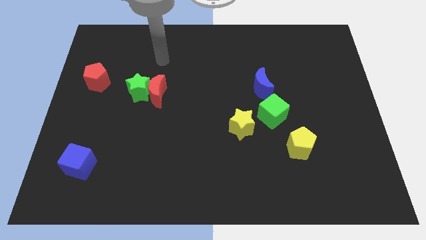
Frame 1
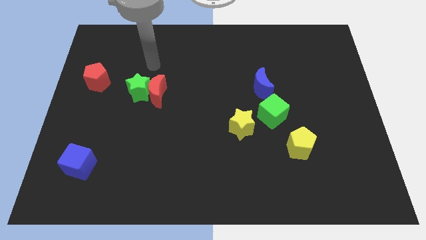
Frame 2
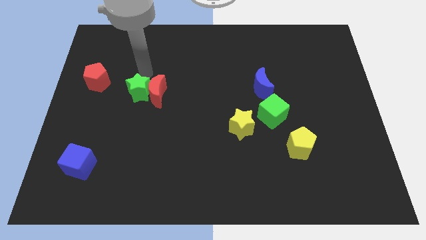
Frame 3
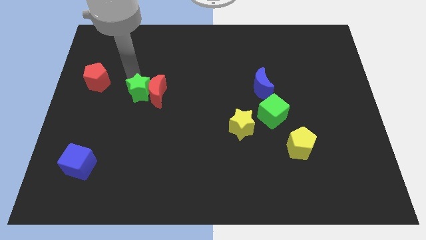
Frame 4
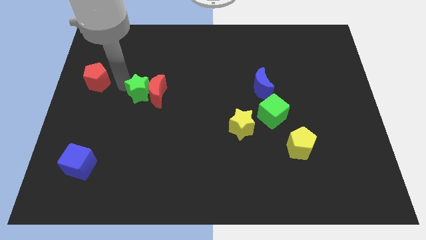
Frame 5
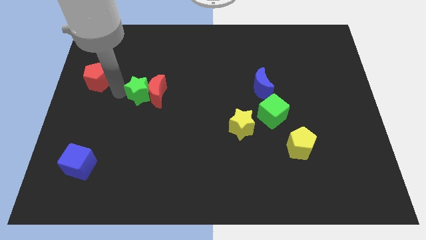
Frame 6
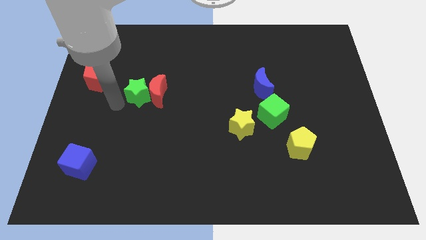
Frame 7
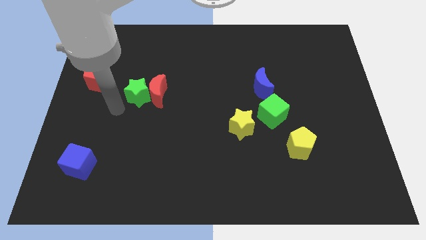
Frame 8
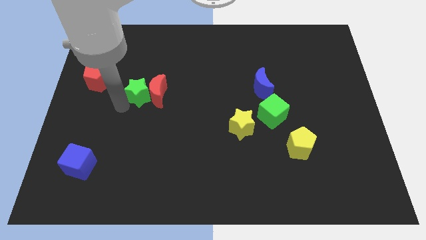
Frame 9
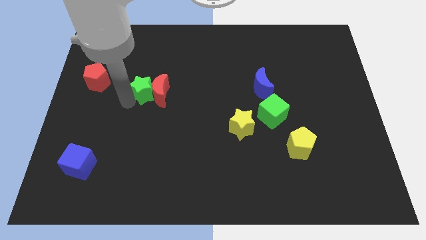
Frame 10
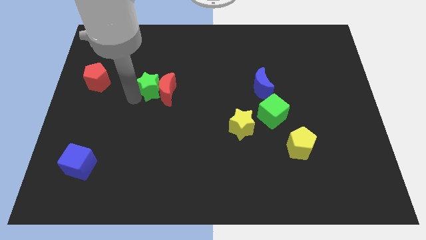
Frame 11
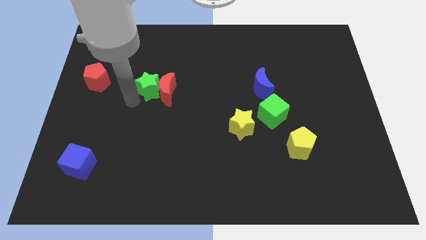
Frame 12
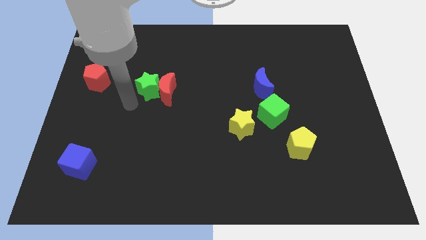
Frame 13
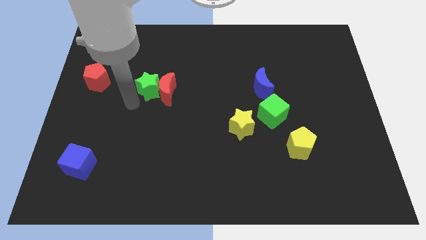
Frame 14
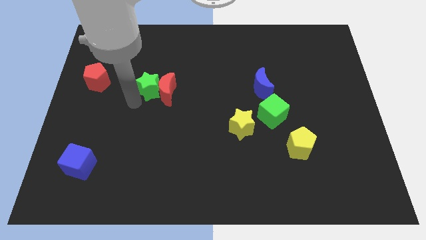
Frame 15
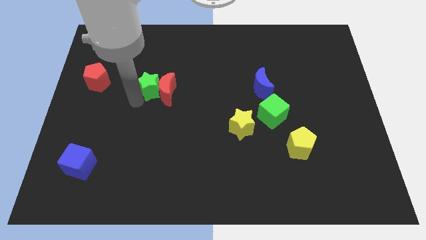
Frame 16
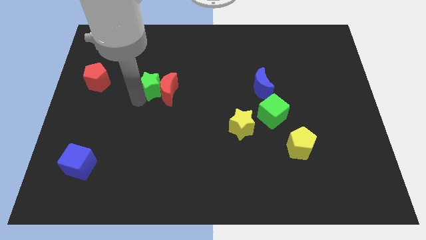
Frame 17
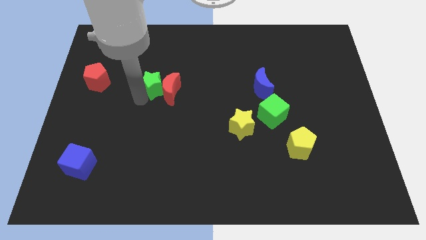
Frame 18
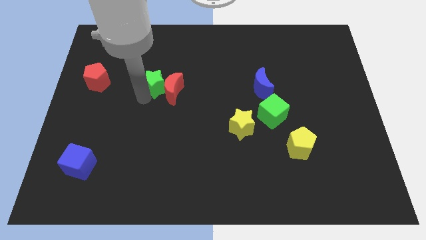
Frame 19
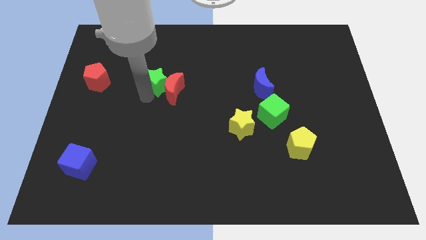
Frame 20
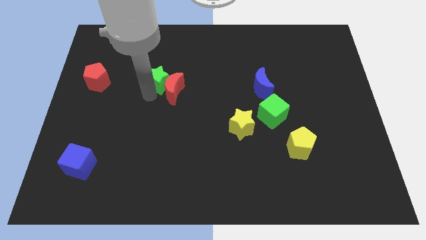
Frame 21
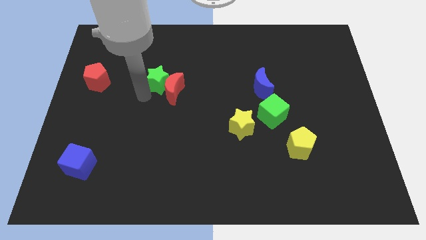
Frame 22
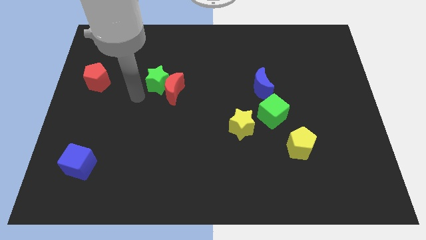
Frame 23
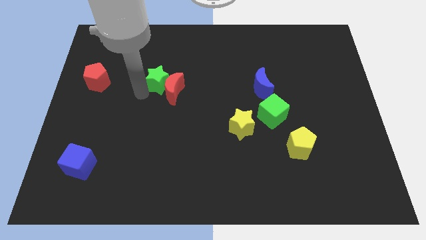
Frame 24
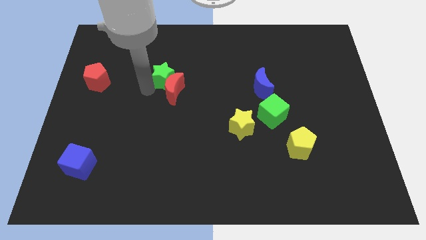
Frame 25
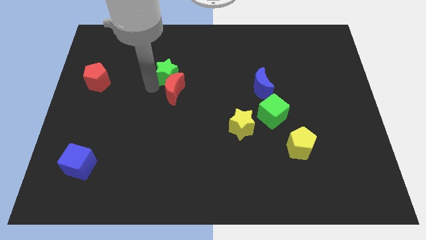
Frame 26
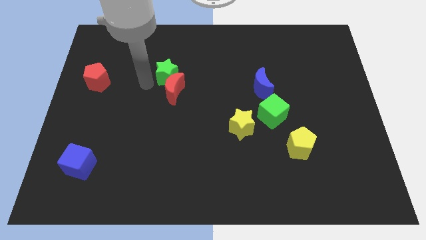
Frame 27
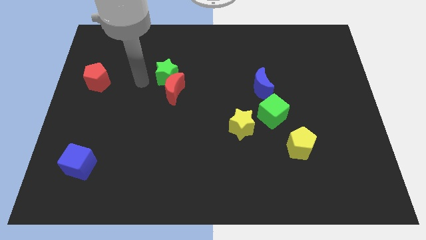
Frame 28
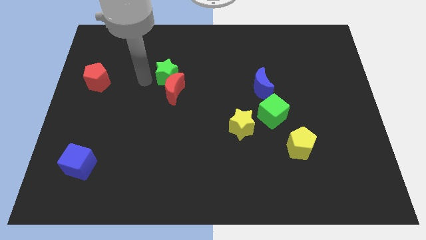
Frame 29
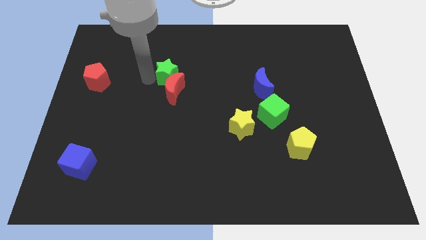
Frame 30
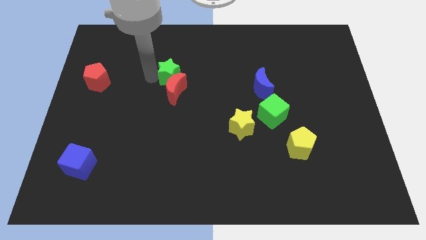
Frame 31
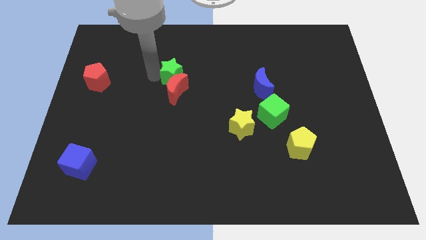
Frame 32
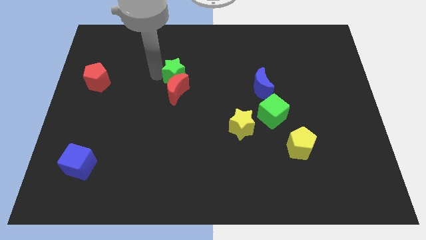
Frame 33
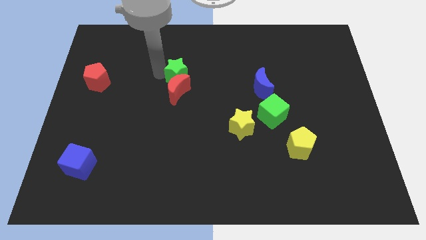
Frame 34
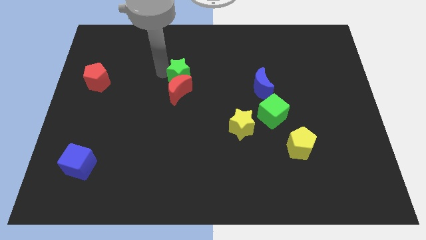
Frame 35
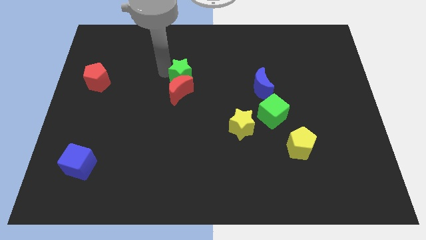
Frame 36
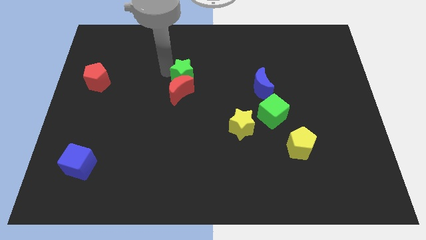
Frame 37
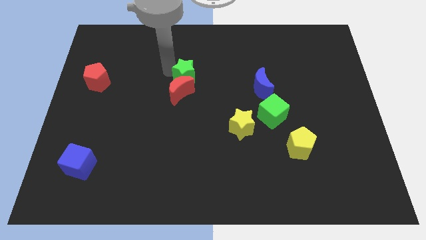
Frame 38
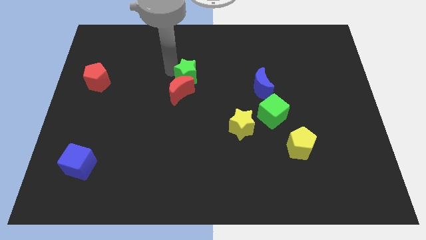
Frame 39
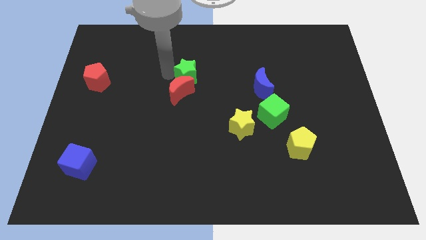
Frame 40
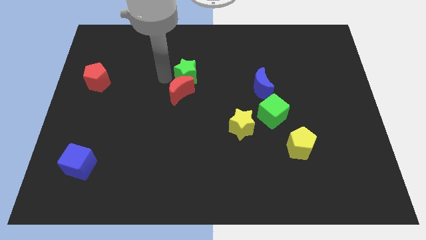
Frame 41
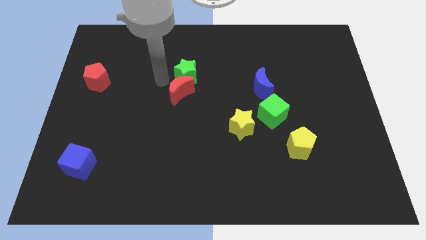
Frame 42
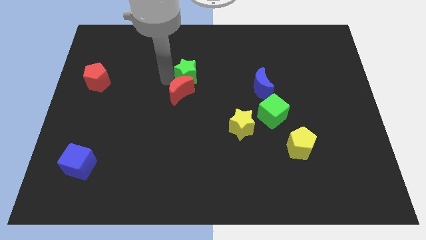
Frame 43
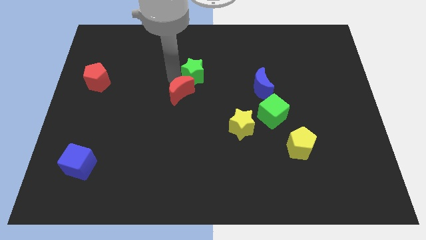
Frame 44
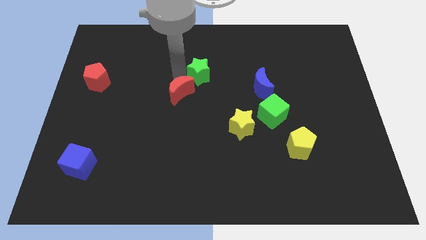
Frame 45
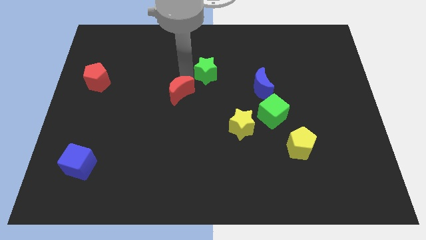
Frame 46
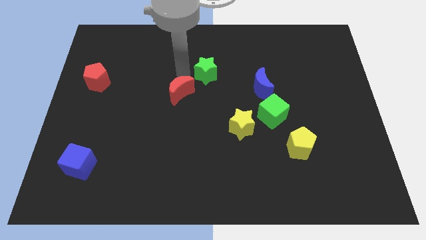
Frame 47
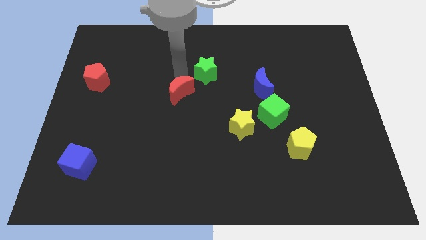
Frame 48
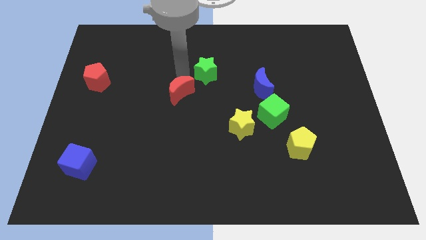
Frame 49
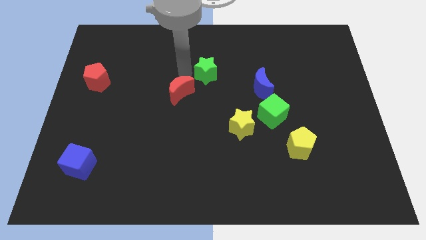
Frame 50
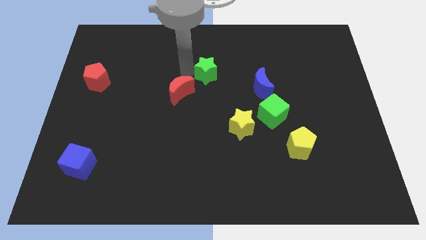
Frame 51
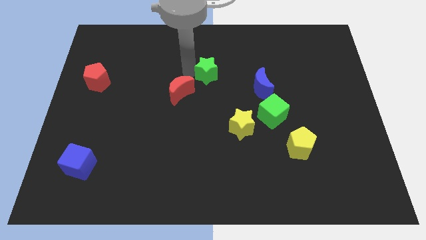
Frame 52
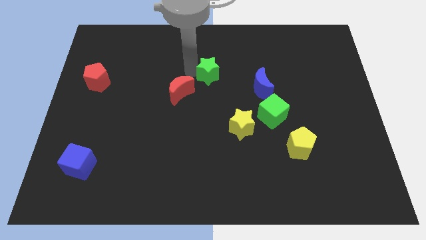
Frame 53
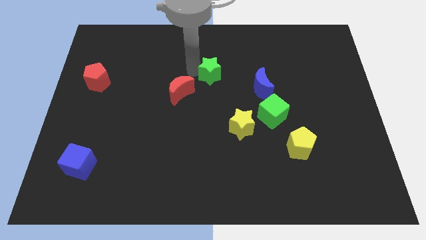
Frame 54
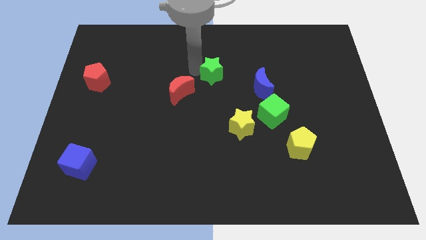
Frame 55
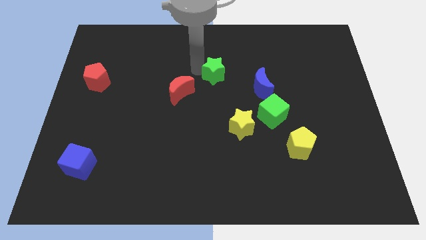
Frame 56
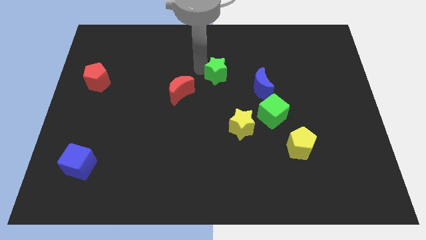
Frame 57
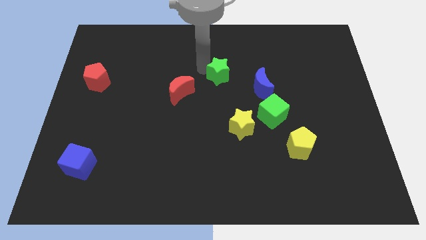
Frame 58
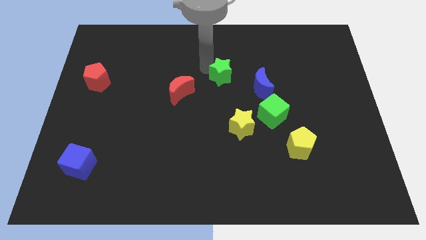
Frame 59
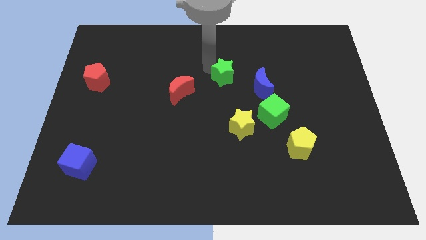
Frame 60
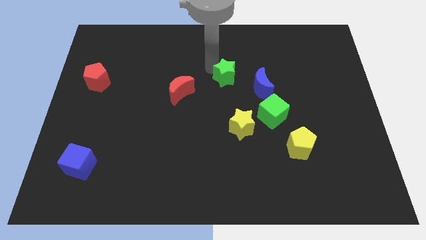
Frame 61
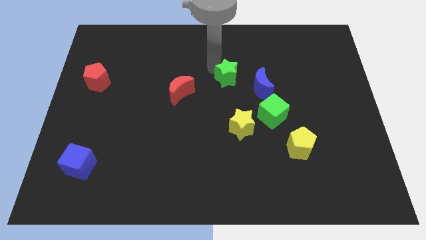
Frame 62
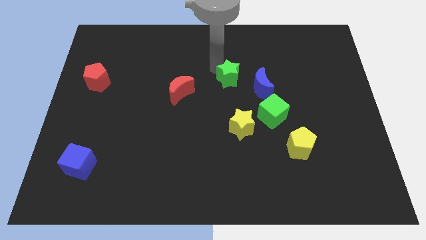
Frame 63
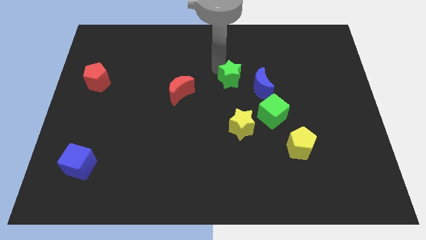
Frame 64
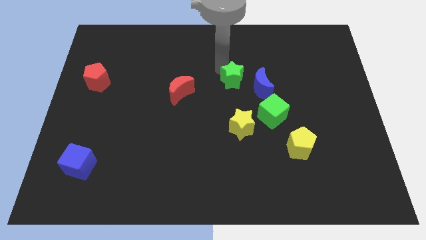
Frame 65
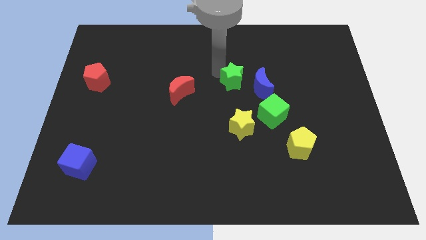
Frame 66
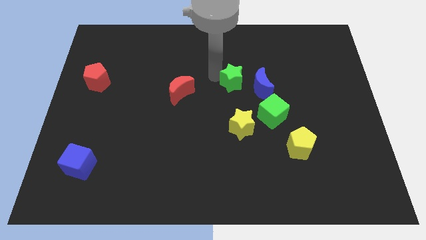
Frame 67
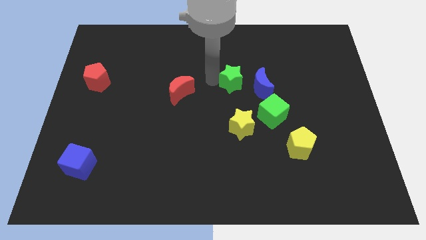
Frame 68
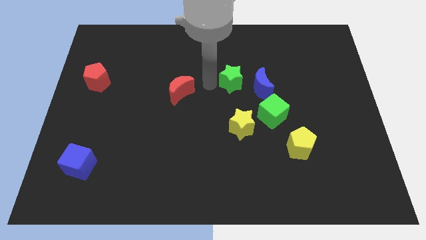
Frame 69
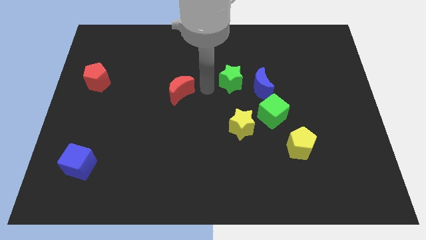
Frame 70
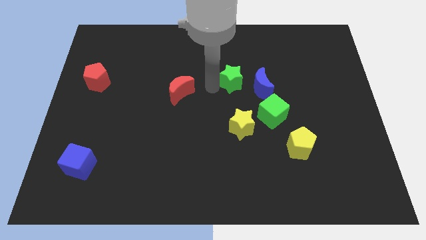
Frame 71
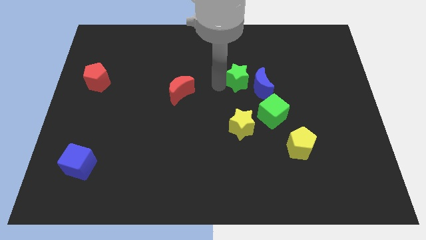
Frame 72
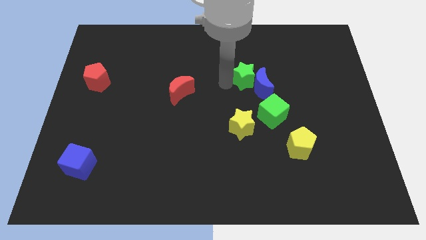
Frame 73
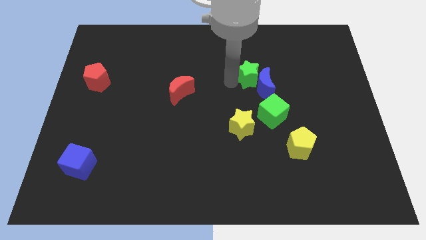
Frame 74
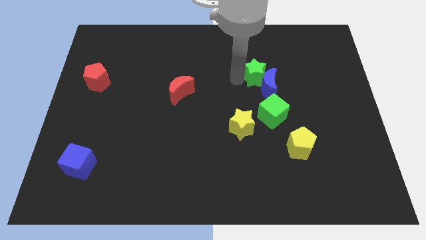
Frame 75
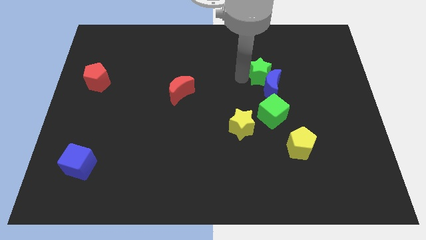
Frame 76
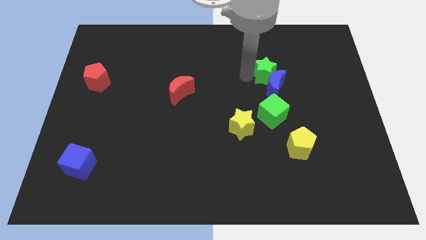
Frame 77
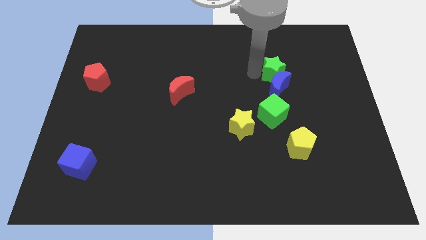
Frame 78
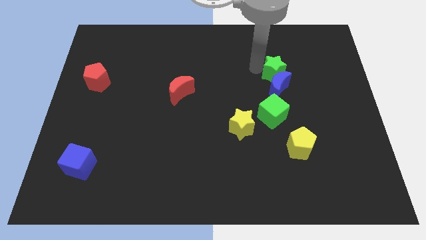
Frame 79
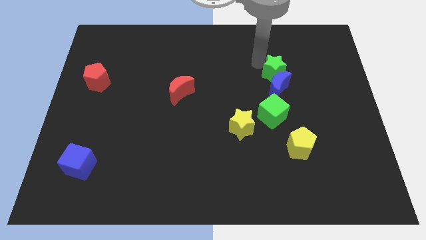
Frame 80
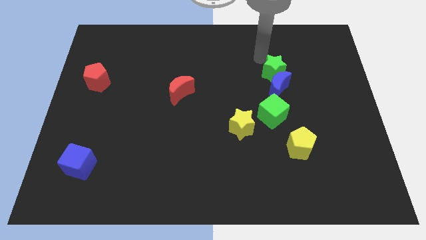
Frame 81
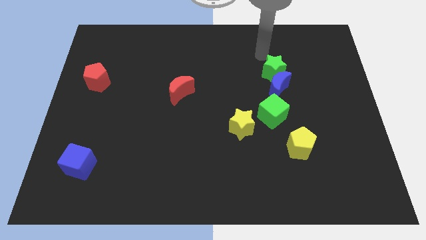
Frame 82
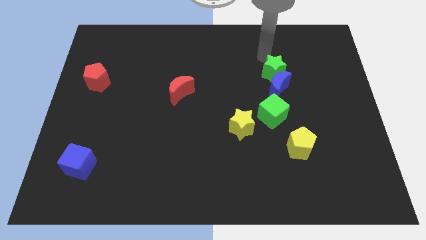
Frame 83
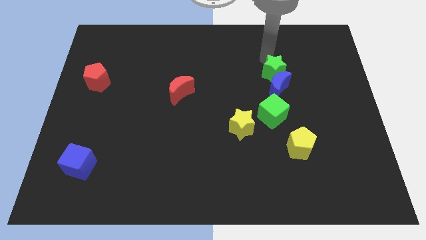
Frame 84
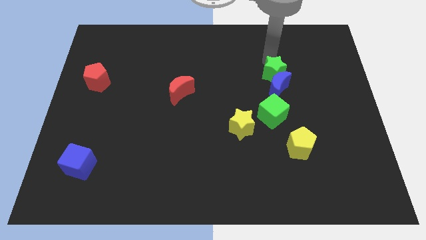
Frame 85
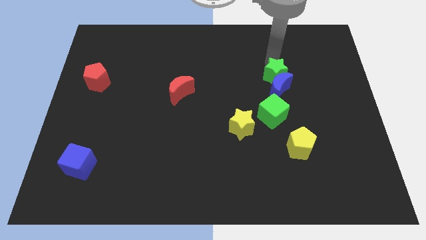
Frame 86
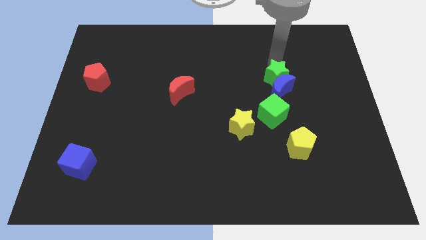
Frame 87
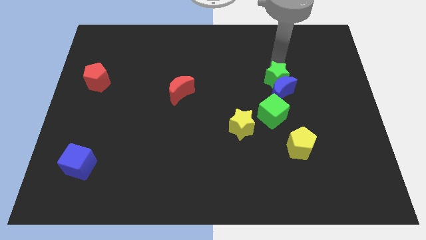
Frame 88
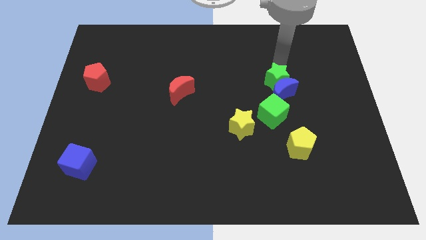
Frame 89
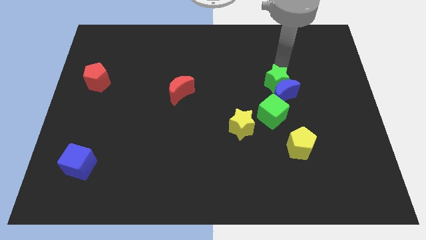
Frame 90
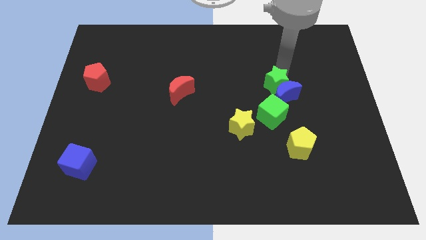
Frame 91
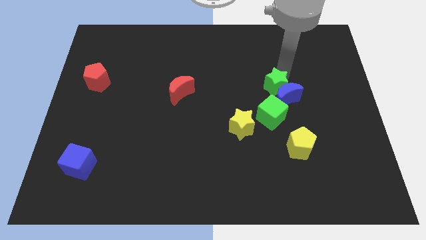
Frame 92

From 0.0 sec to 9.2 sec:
push the green star diagonally up and to the right of the green cube
